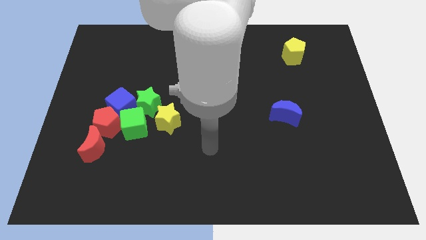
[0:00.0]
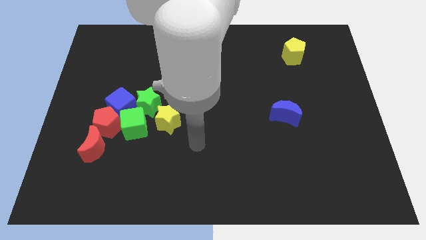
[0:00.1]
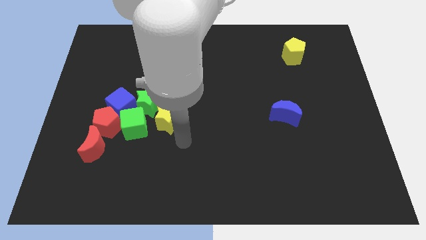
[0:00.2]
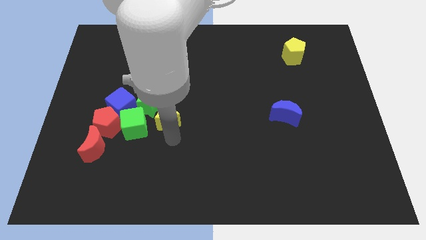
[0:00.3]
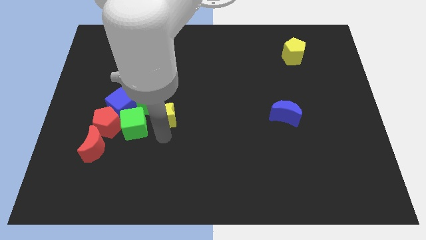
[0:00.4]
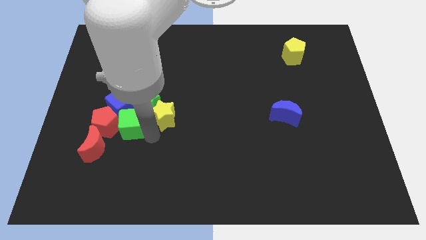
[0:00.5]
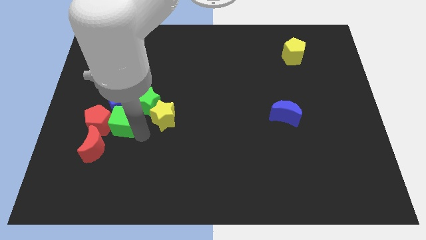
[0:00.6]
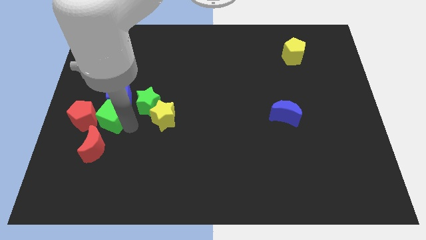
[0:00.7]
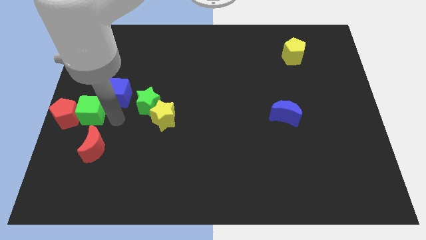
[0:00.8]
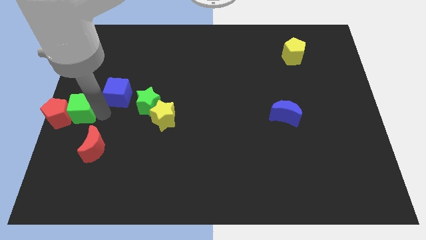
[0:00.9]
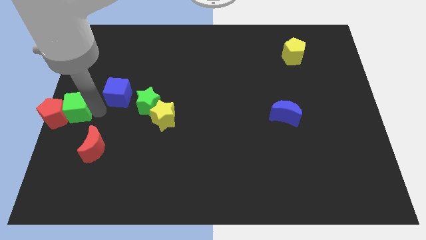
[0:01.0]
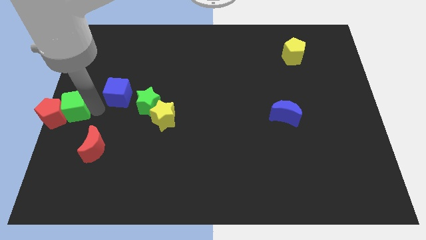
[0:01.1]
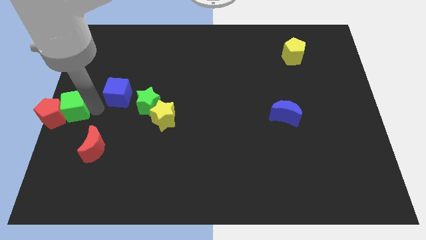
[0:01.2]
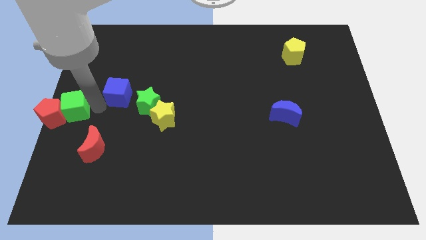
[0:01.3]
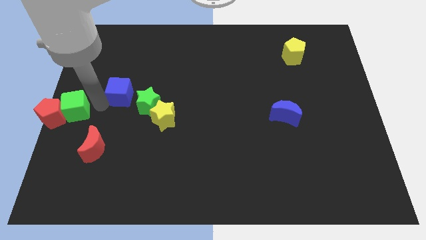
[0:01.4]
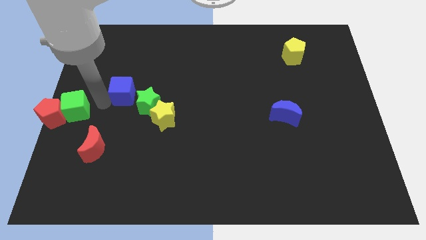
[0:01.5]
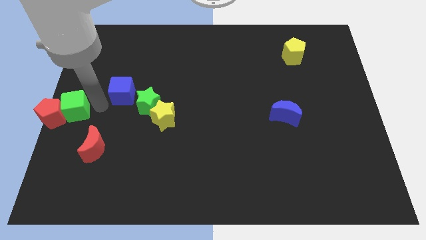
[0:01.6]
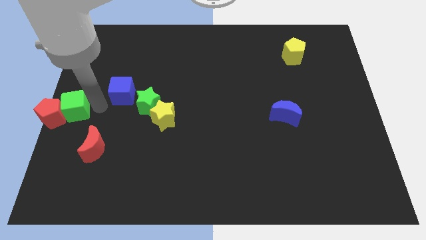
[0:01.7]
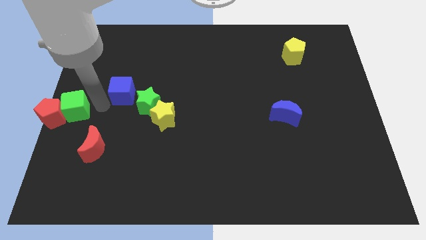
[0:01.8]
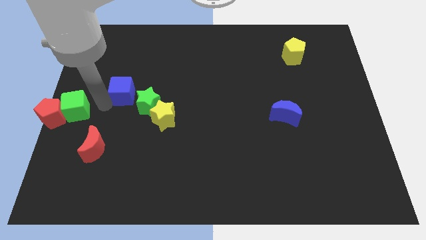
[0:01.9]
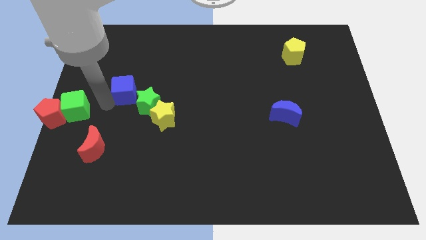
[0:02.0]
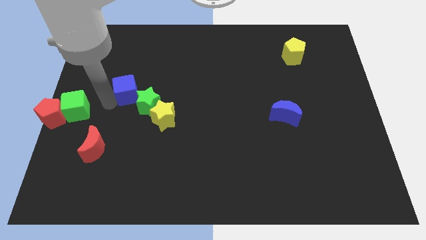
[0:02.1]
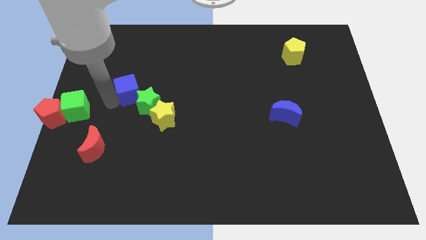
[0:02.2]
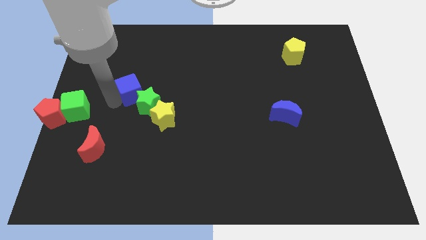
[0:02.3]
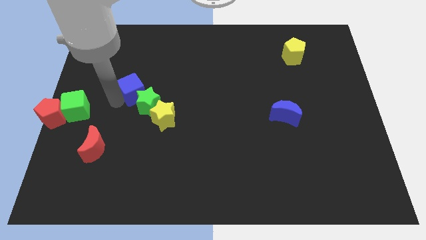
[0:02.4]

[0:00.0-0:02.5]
pull the blue cube apart from the red pentagon, green star, and green cube

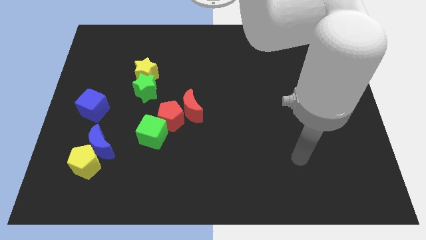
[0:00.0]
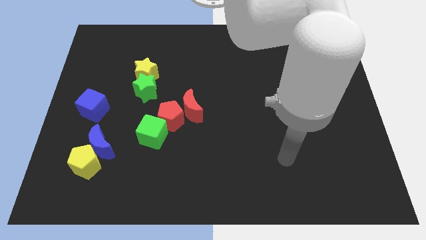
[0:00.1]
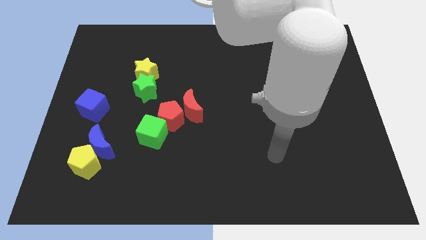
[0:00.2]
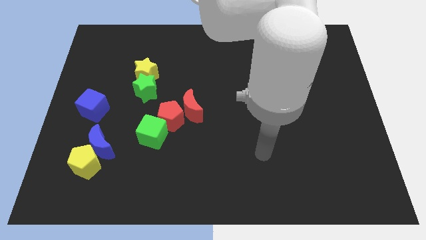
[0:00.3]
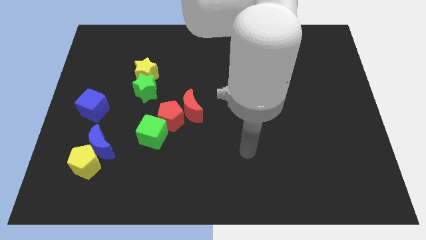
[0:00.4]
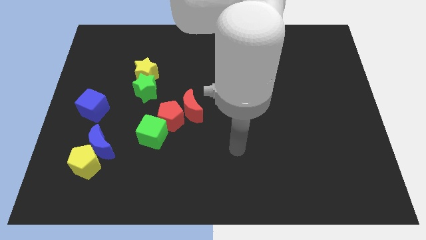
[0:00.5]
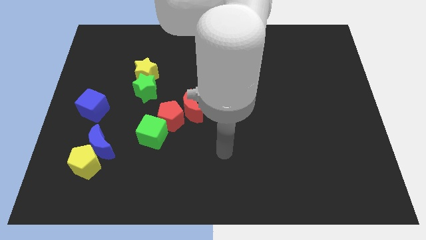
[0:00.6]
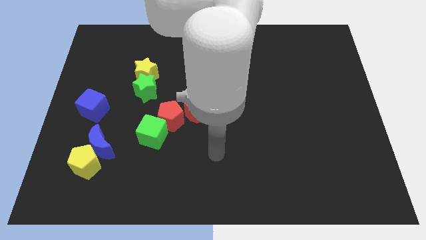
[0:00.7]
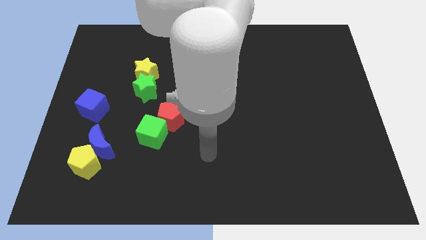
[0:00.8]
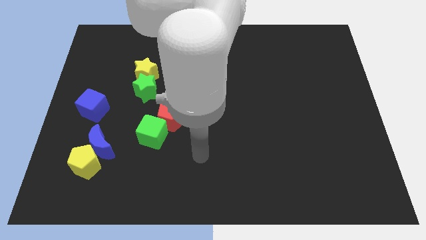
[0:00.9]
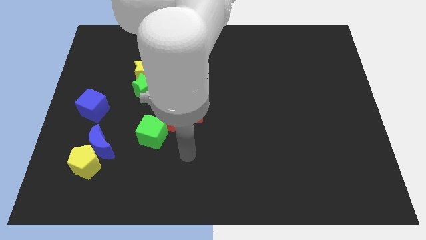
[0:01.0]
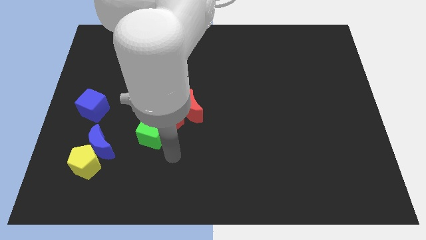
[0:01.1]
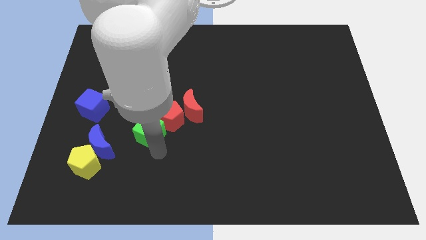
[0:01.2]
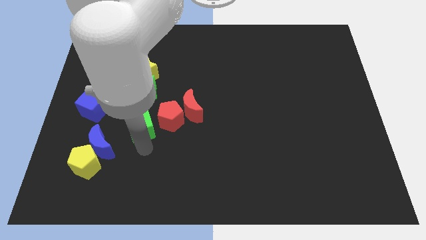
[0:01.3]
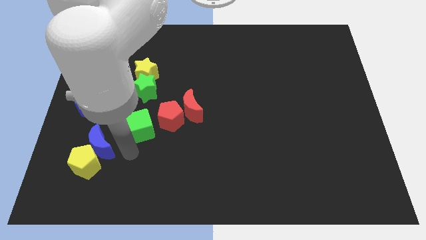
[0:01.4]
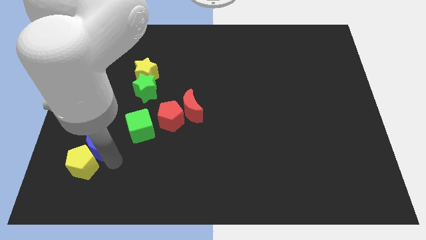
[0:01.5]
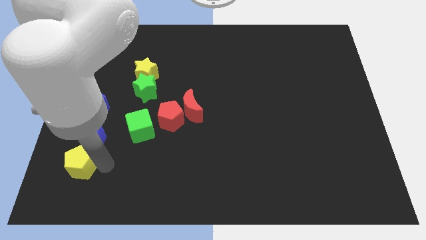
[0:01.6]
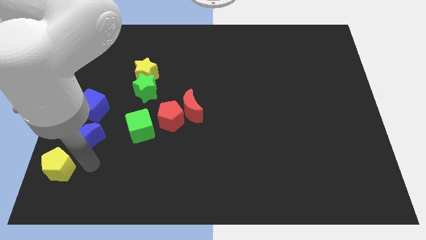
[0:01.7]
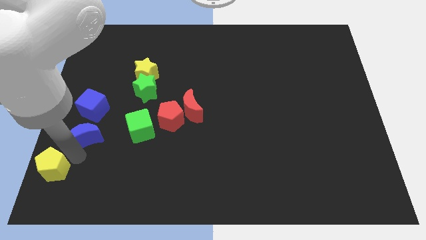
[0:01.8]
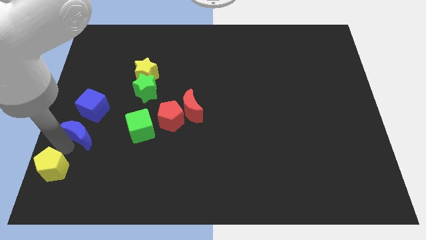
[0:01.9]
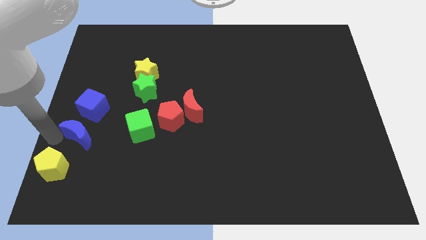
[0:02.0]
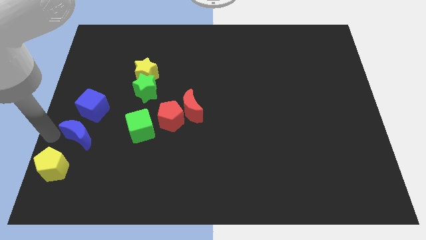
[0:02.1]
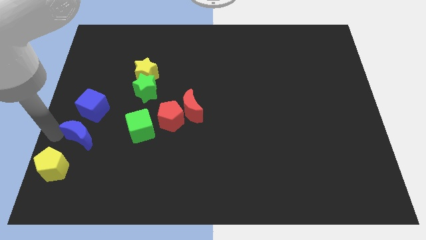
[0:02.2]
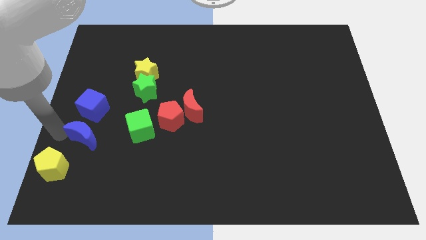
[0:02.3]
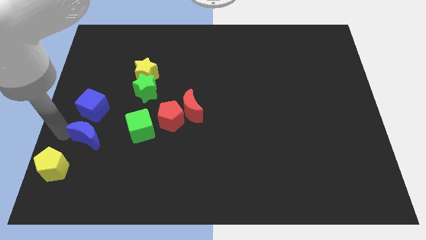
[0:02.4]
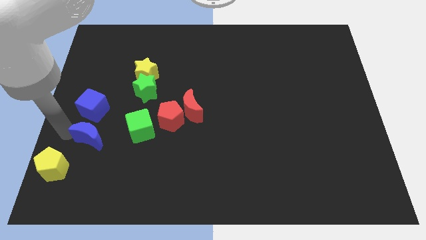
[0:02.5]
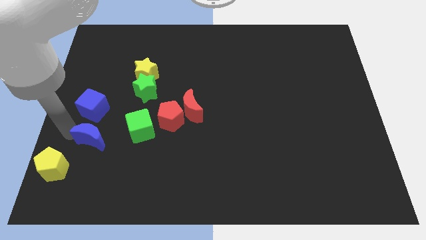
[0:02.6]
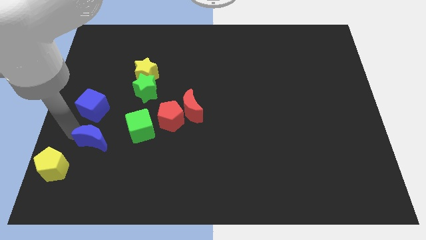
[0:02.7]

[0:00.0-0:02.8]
separate the blue moon from the yellow pentagon

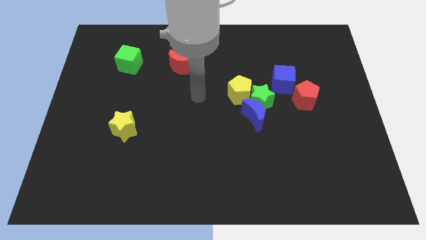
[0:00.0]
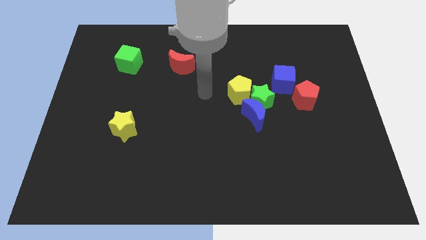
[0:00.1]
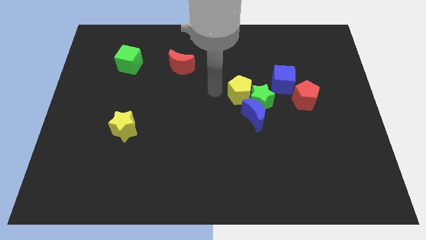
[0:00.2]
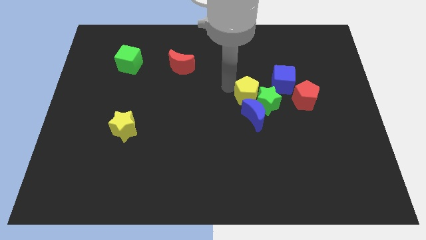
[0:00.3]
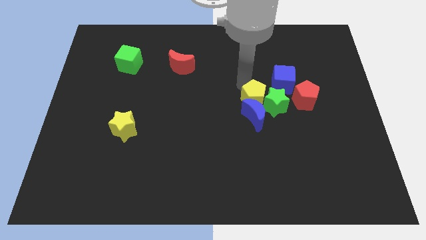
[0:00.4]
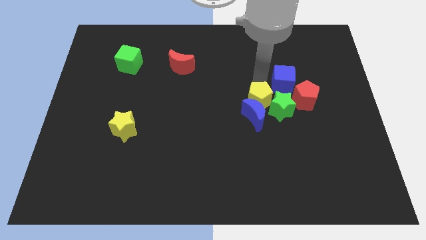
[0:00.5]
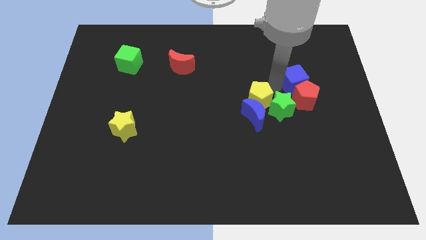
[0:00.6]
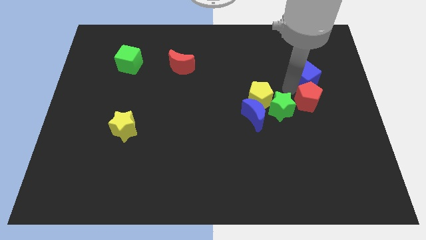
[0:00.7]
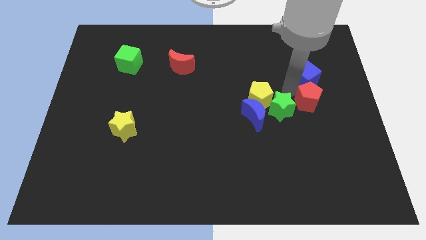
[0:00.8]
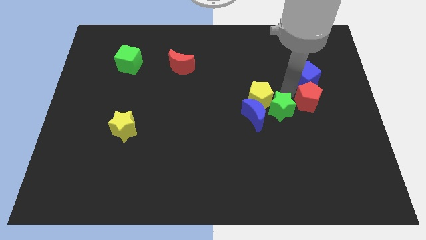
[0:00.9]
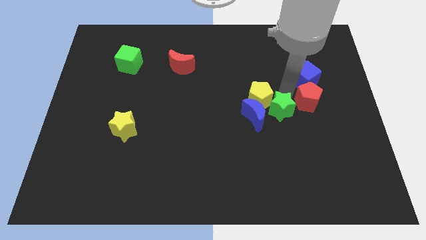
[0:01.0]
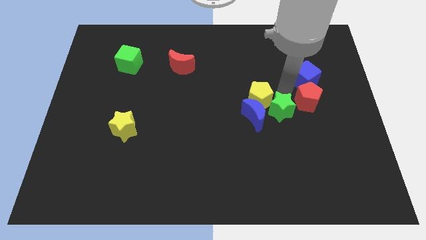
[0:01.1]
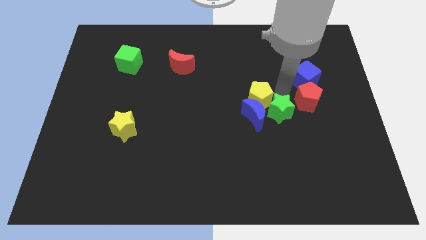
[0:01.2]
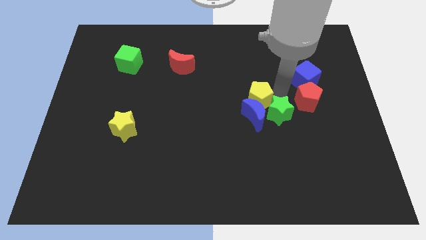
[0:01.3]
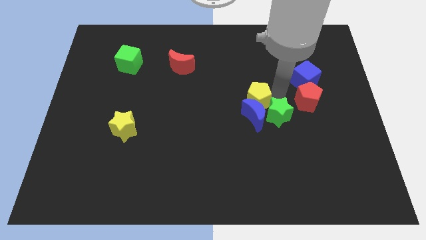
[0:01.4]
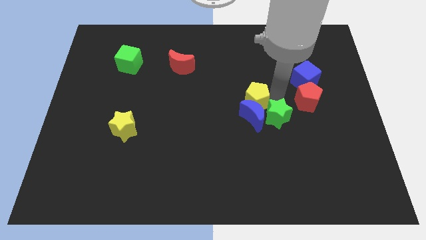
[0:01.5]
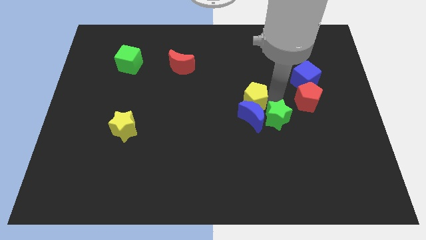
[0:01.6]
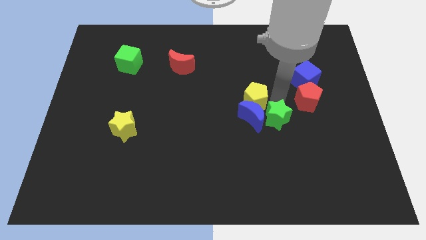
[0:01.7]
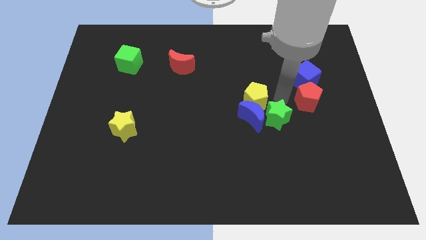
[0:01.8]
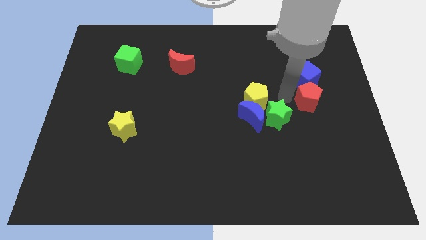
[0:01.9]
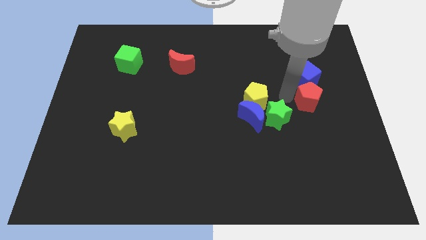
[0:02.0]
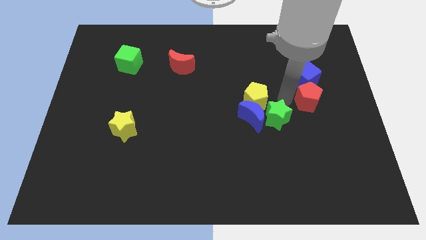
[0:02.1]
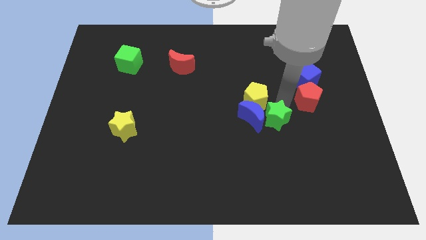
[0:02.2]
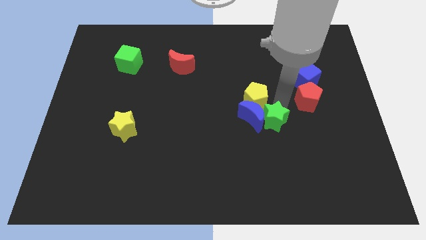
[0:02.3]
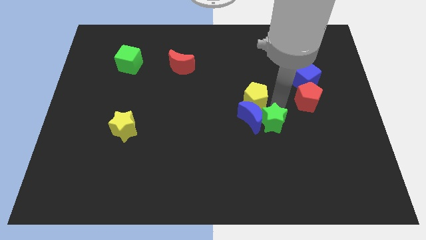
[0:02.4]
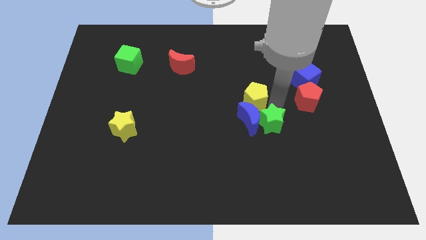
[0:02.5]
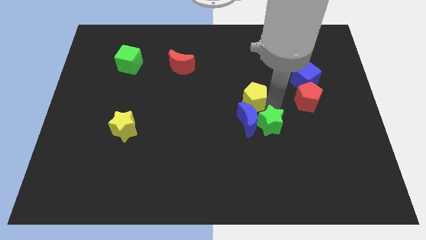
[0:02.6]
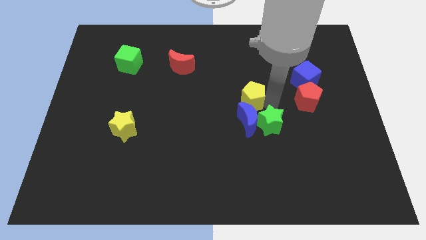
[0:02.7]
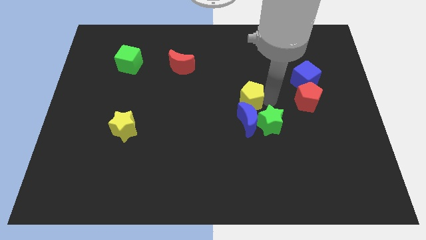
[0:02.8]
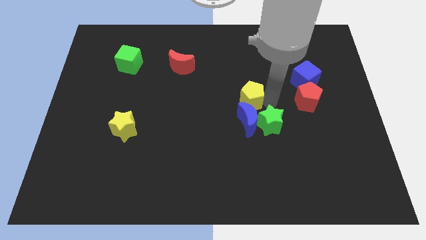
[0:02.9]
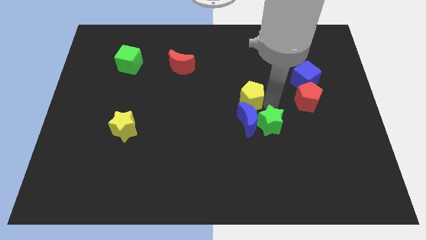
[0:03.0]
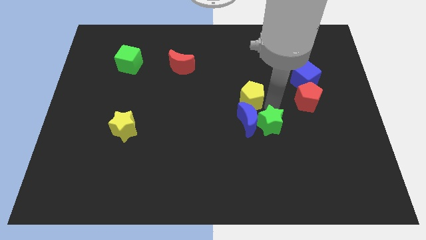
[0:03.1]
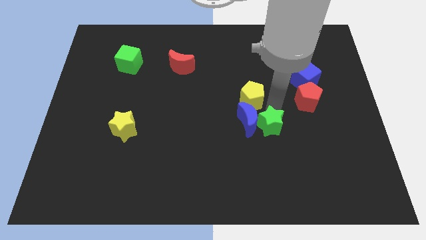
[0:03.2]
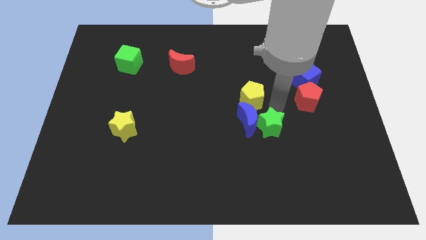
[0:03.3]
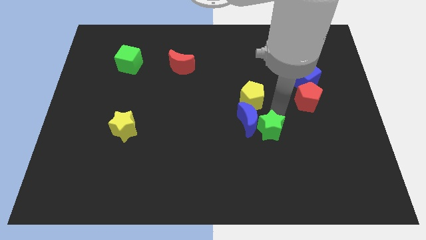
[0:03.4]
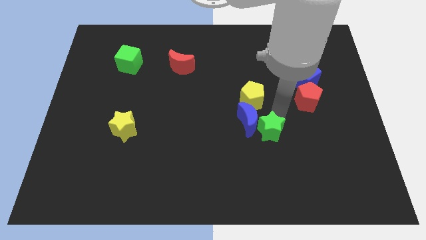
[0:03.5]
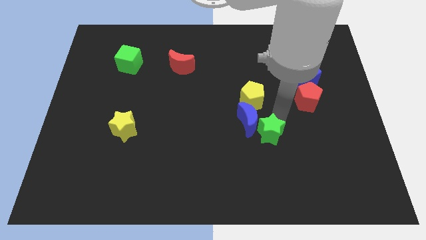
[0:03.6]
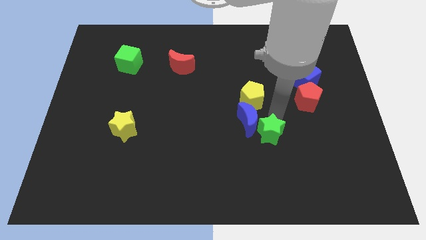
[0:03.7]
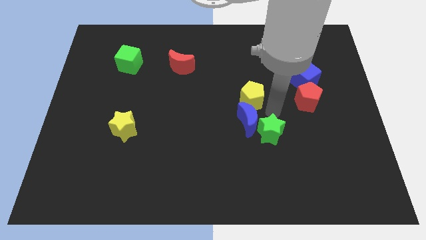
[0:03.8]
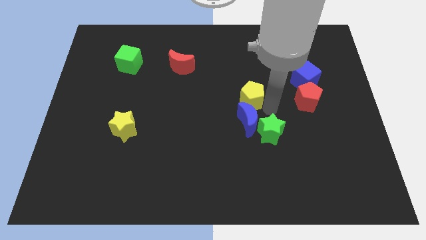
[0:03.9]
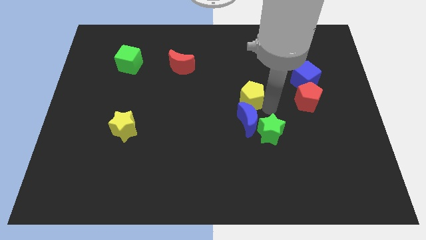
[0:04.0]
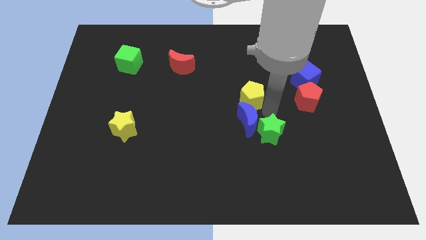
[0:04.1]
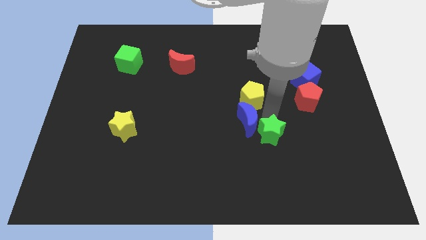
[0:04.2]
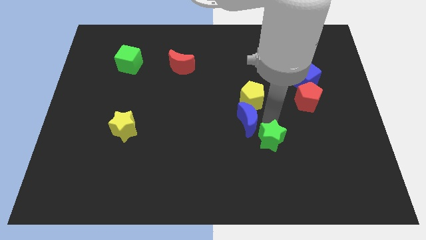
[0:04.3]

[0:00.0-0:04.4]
move the green star away from the group of blocks
